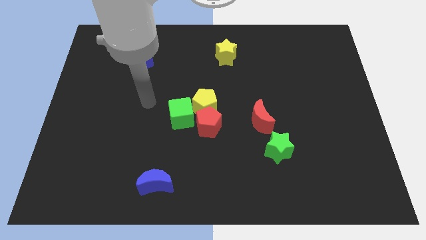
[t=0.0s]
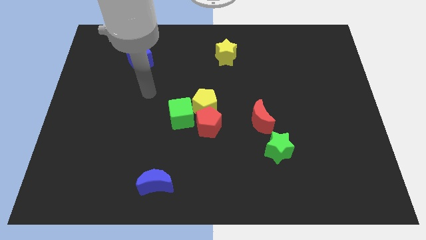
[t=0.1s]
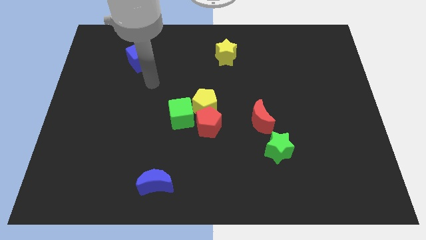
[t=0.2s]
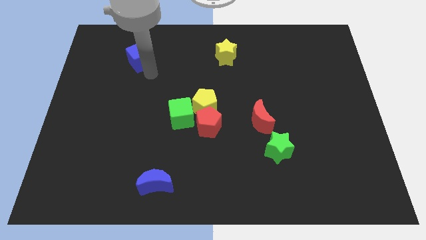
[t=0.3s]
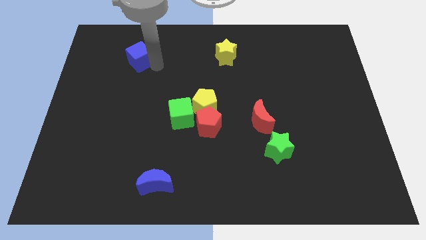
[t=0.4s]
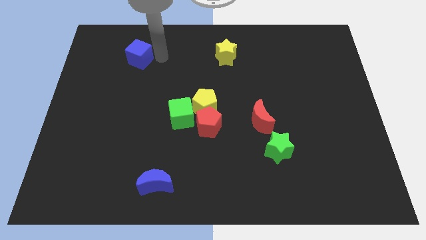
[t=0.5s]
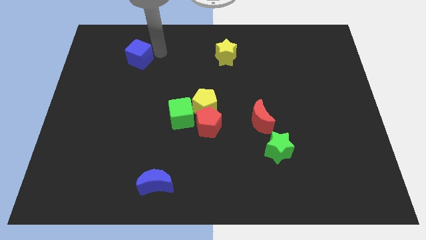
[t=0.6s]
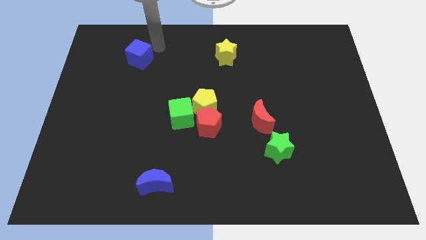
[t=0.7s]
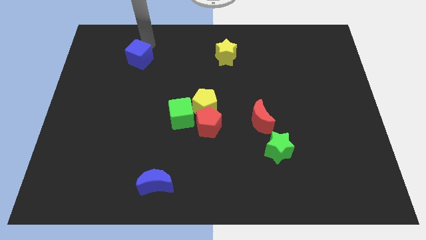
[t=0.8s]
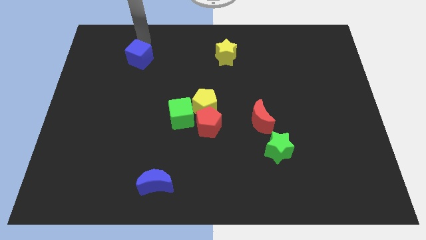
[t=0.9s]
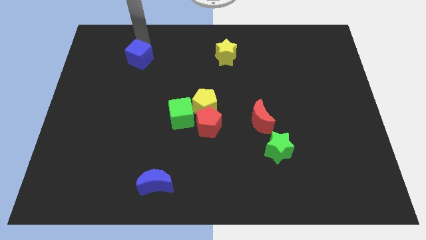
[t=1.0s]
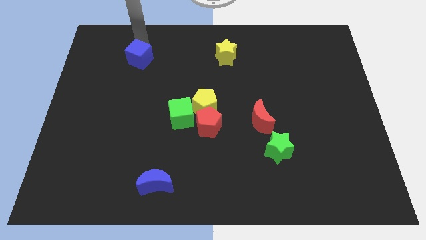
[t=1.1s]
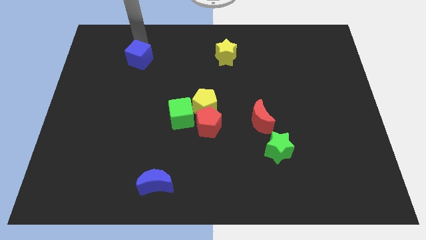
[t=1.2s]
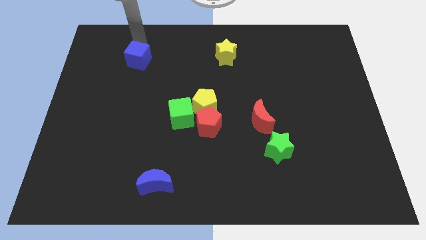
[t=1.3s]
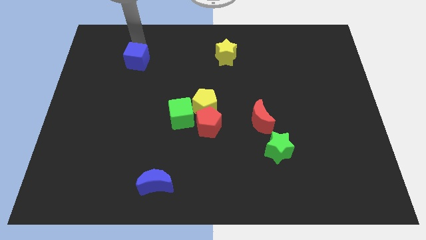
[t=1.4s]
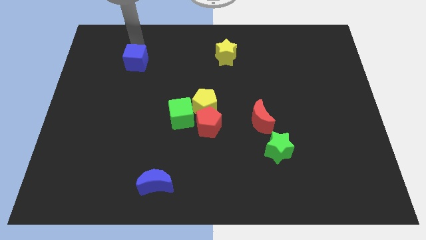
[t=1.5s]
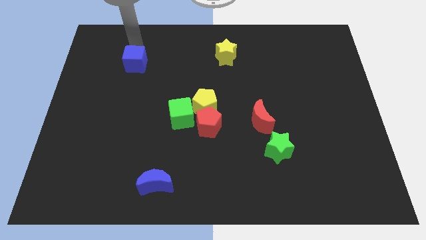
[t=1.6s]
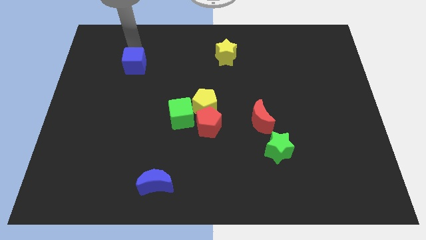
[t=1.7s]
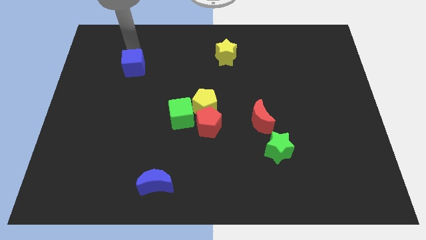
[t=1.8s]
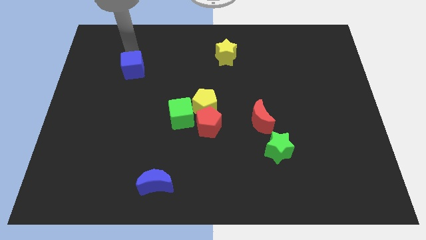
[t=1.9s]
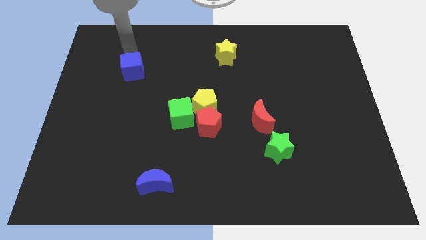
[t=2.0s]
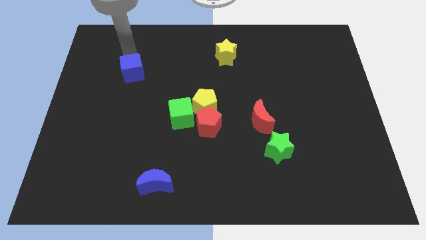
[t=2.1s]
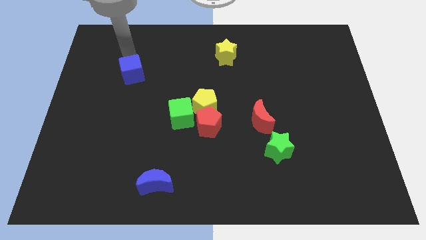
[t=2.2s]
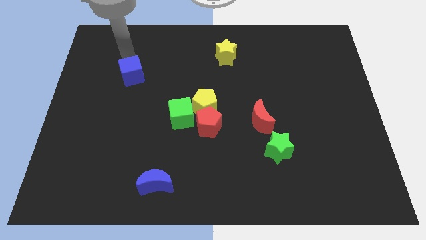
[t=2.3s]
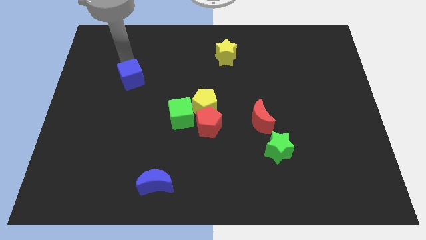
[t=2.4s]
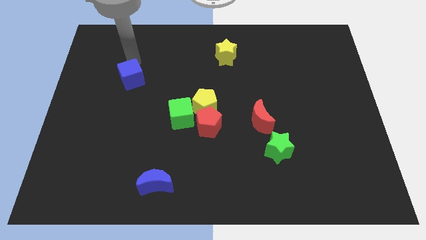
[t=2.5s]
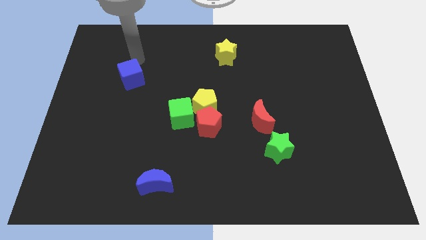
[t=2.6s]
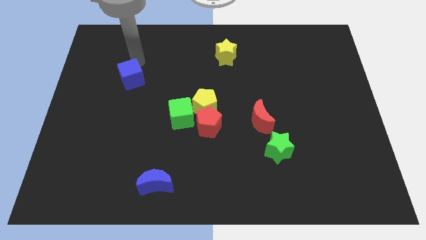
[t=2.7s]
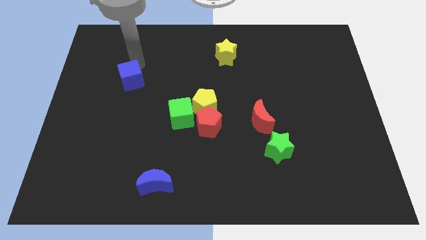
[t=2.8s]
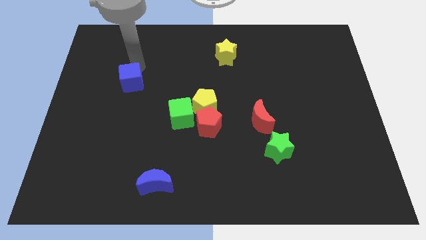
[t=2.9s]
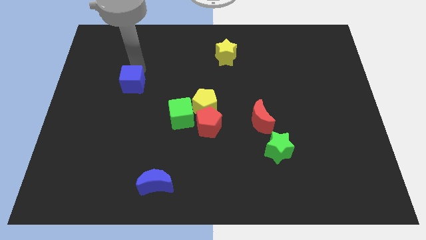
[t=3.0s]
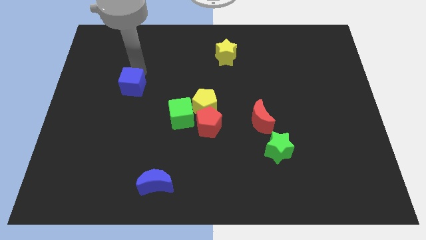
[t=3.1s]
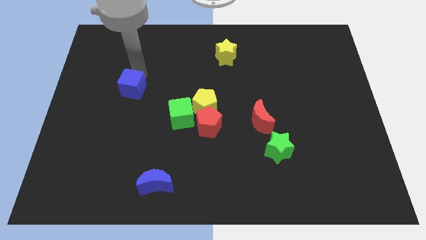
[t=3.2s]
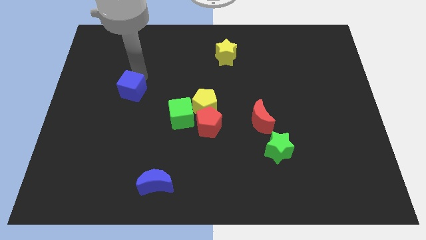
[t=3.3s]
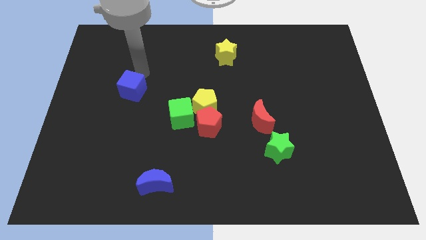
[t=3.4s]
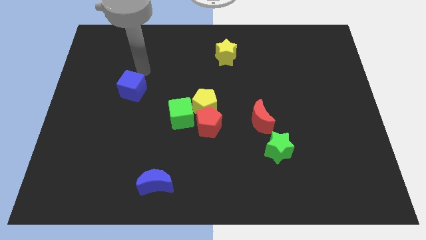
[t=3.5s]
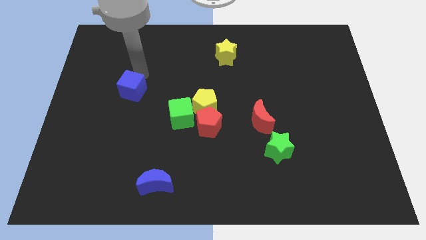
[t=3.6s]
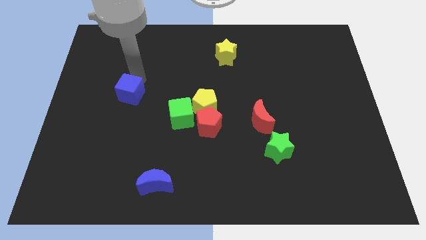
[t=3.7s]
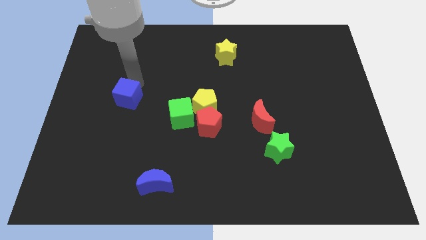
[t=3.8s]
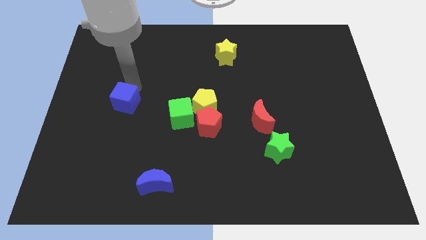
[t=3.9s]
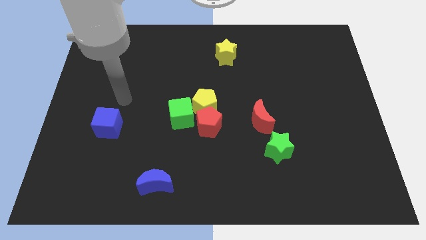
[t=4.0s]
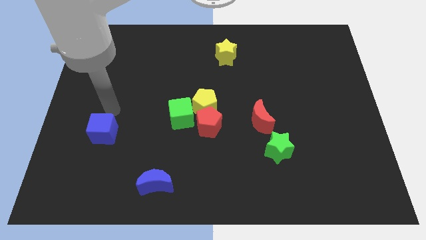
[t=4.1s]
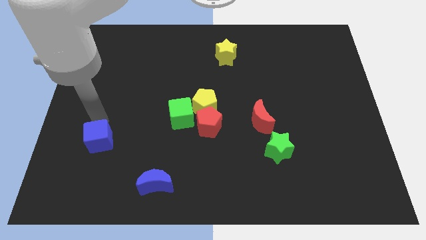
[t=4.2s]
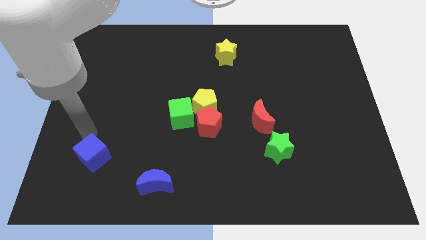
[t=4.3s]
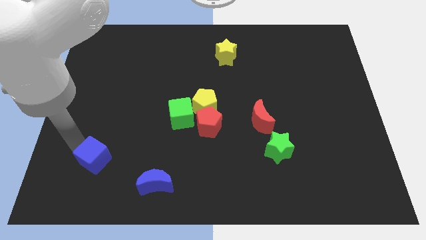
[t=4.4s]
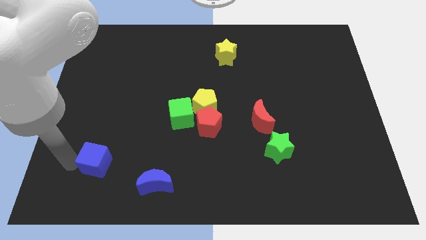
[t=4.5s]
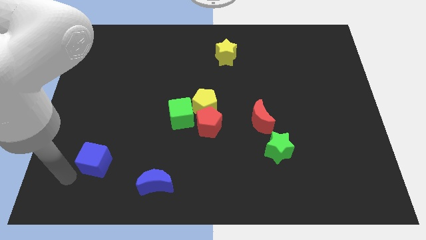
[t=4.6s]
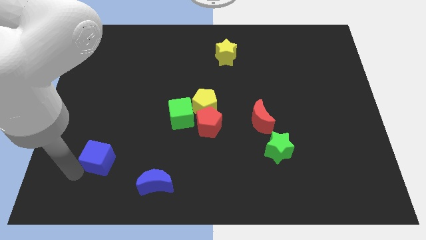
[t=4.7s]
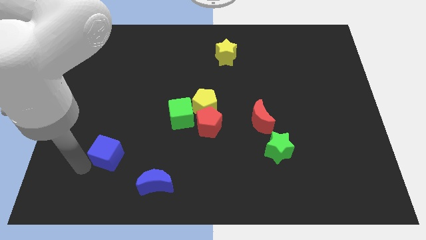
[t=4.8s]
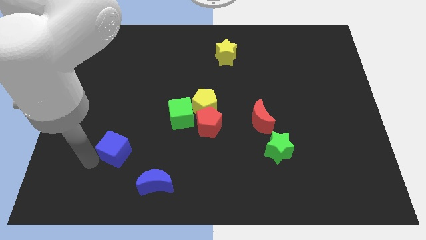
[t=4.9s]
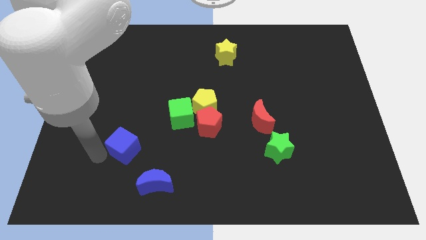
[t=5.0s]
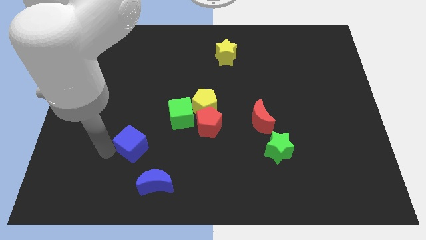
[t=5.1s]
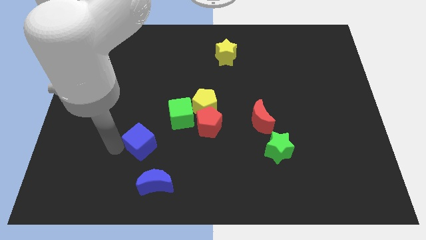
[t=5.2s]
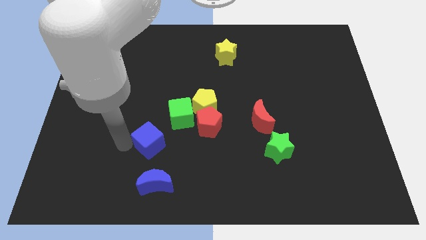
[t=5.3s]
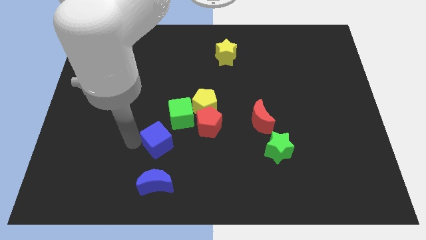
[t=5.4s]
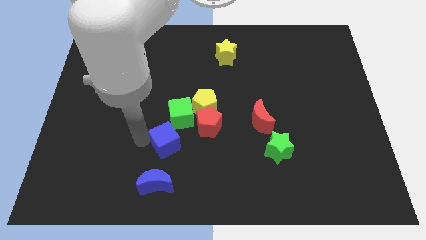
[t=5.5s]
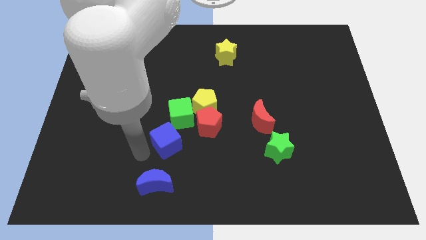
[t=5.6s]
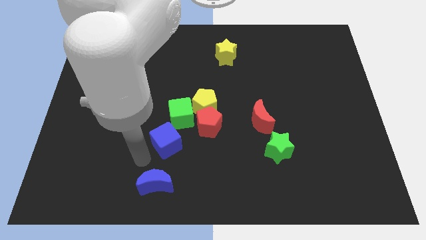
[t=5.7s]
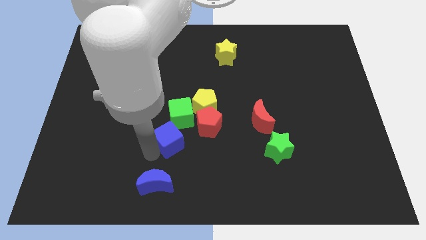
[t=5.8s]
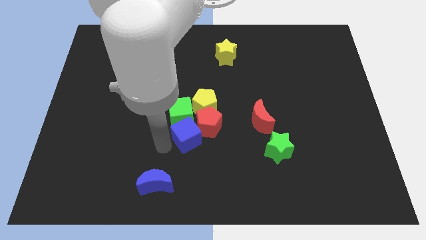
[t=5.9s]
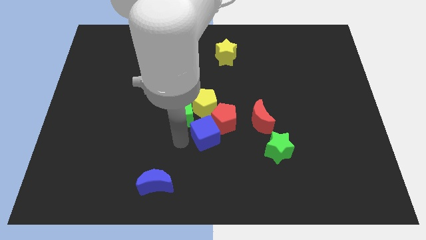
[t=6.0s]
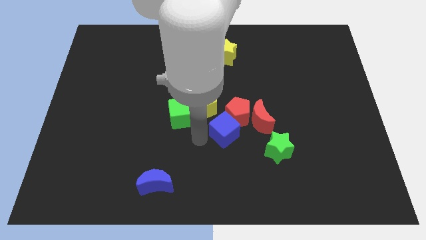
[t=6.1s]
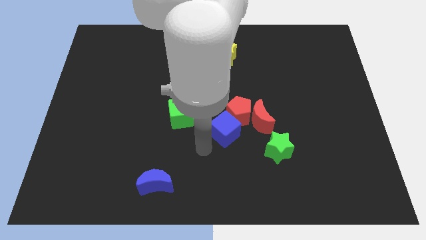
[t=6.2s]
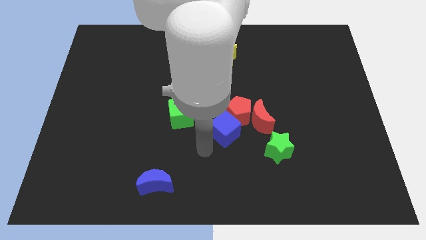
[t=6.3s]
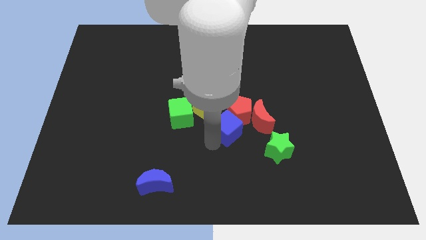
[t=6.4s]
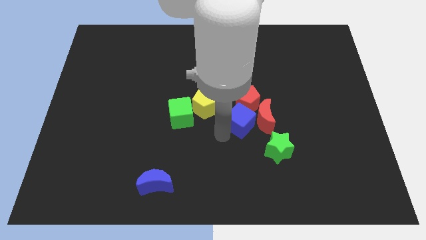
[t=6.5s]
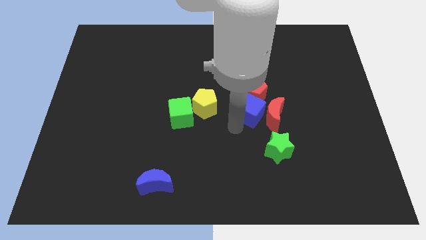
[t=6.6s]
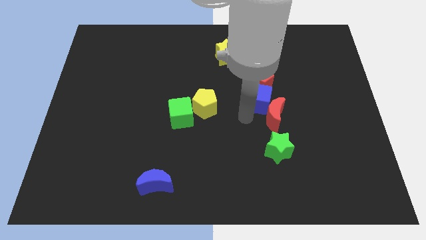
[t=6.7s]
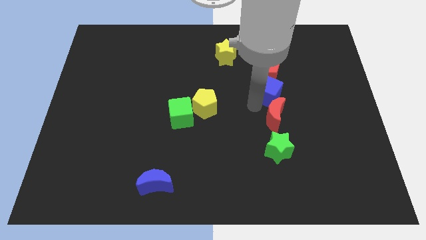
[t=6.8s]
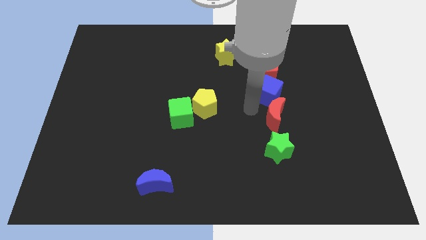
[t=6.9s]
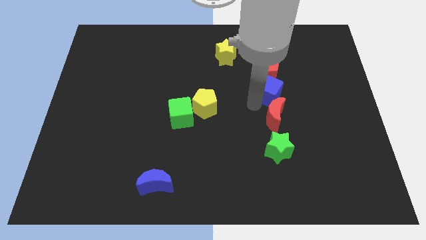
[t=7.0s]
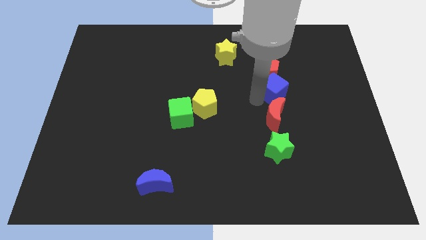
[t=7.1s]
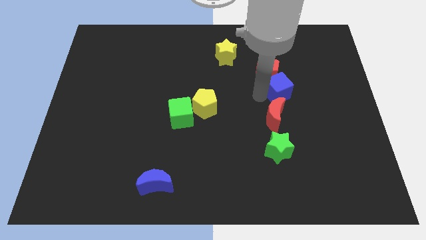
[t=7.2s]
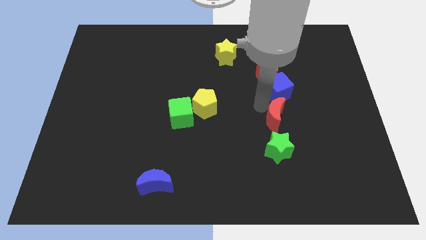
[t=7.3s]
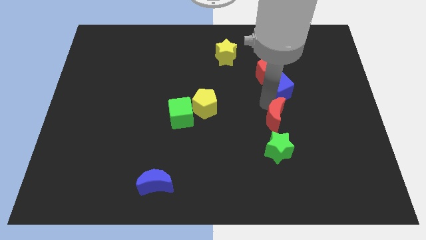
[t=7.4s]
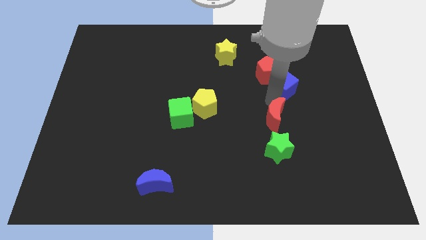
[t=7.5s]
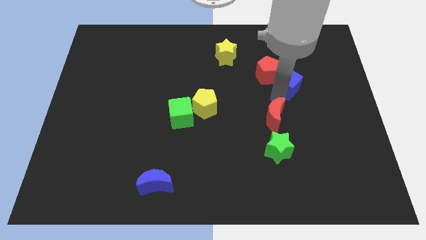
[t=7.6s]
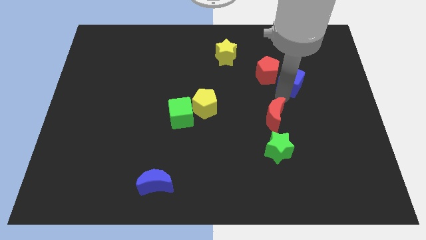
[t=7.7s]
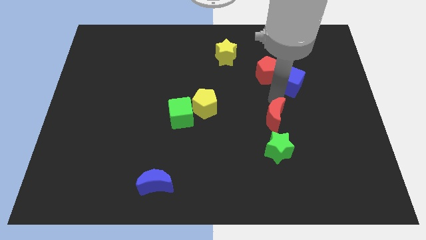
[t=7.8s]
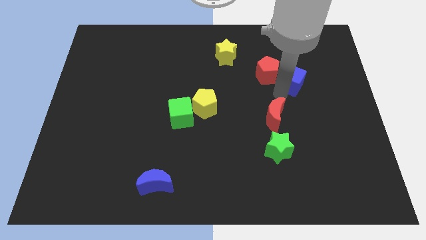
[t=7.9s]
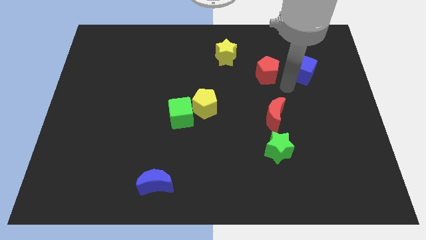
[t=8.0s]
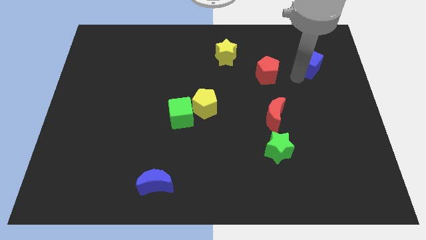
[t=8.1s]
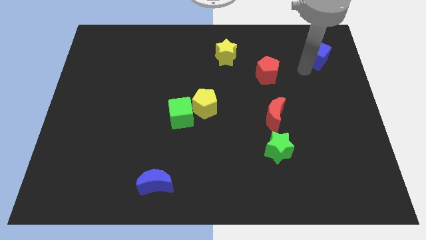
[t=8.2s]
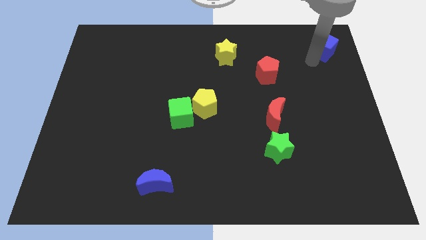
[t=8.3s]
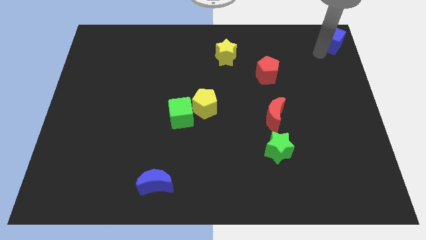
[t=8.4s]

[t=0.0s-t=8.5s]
move the blue cube to the top right
